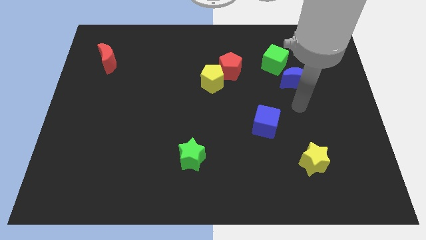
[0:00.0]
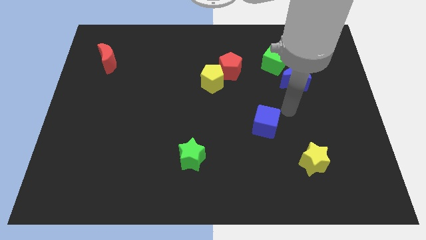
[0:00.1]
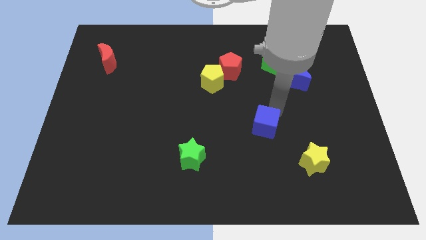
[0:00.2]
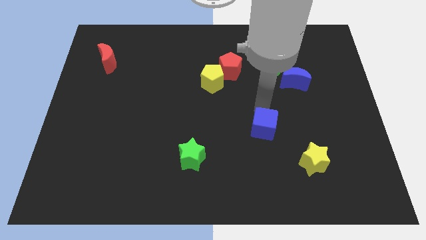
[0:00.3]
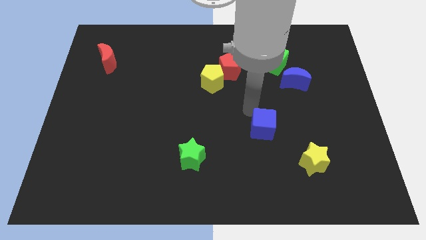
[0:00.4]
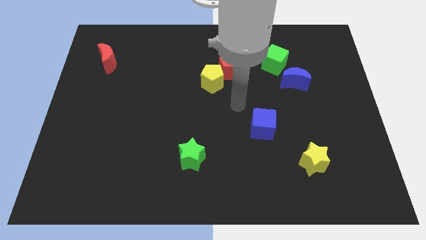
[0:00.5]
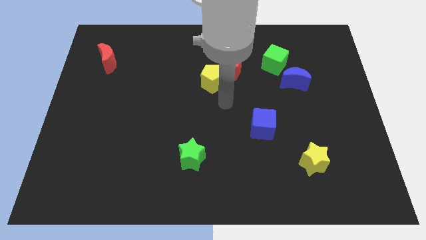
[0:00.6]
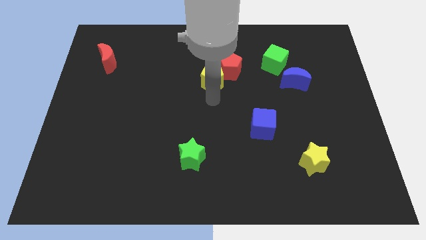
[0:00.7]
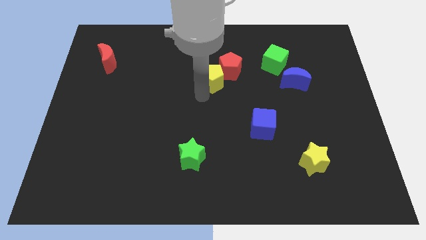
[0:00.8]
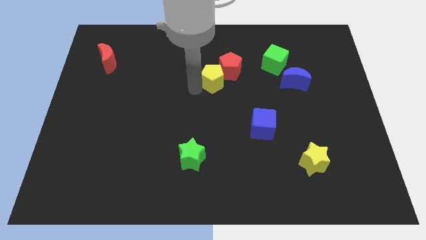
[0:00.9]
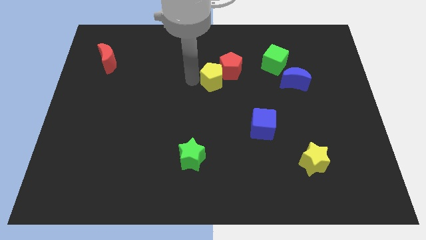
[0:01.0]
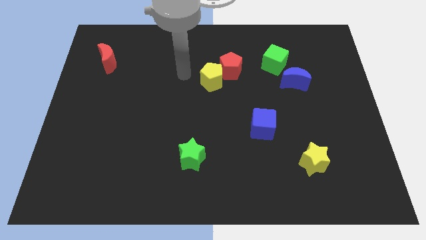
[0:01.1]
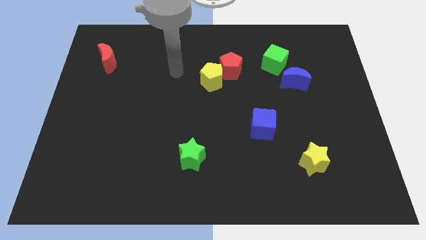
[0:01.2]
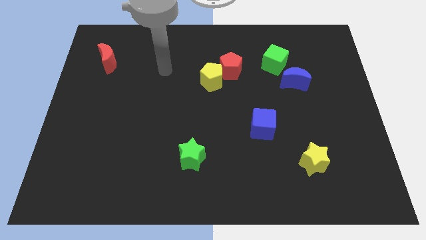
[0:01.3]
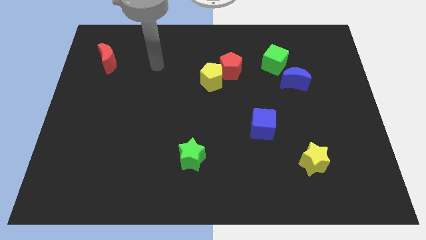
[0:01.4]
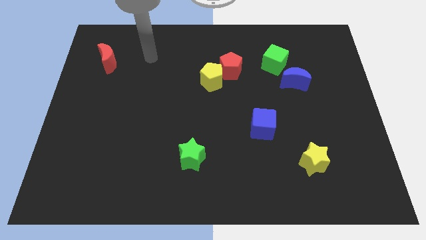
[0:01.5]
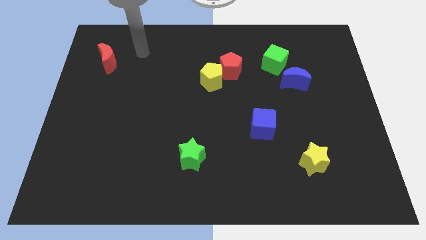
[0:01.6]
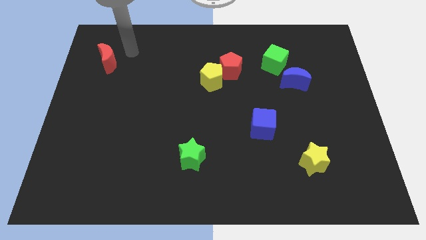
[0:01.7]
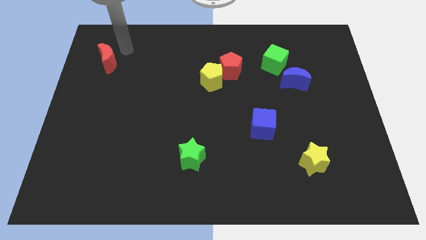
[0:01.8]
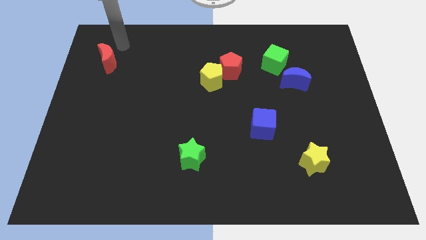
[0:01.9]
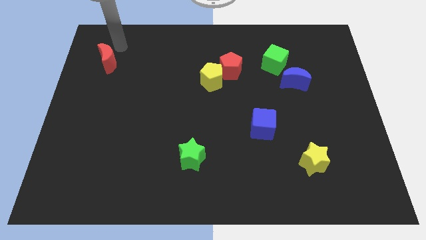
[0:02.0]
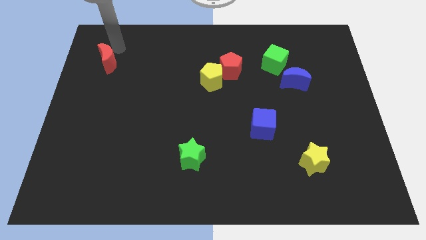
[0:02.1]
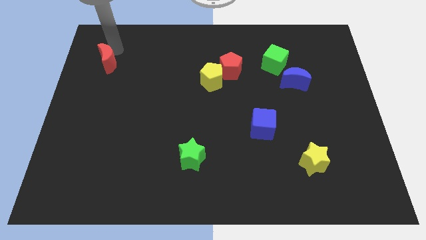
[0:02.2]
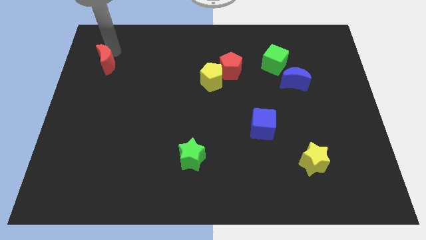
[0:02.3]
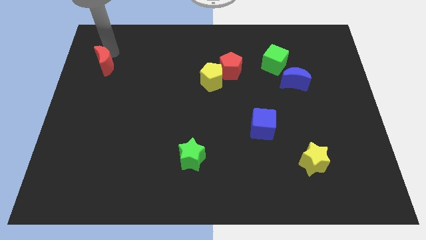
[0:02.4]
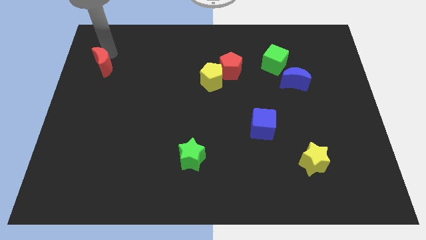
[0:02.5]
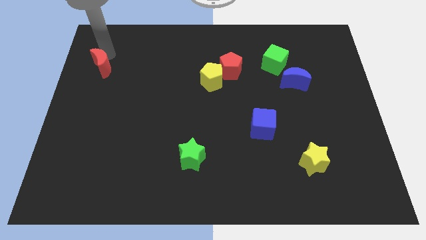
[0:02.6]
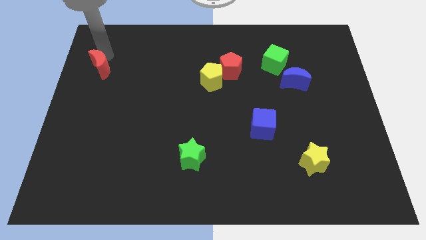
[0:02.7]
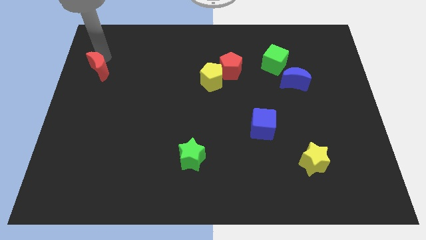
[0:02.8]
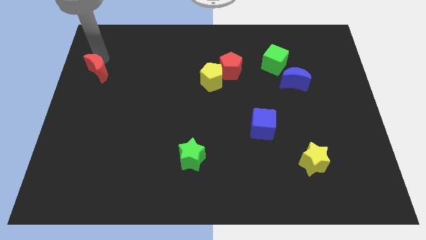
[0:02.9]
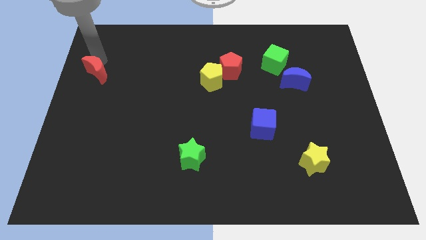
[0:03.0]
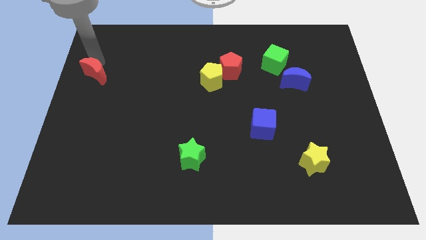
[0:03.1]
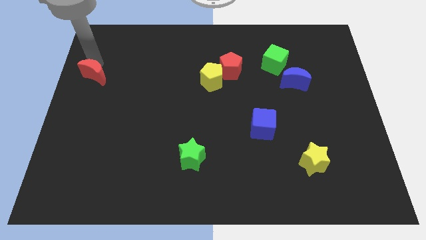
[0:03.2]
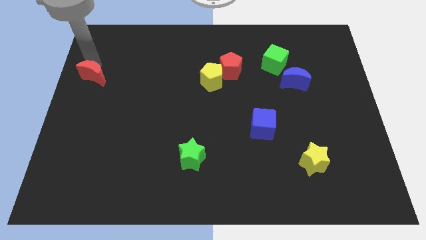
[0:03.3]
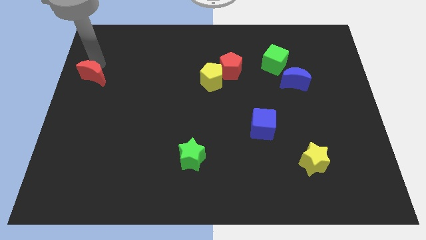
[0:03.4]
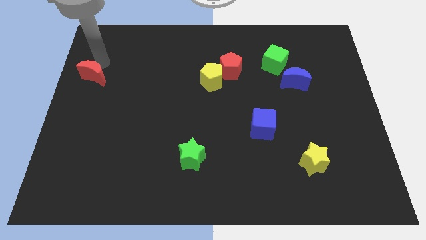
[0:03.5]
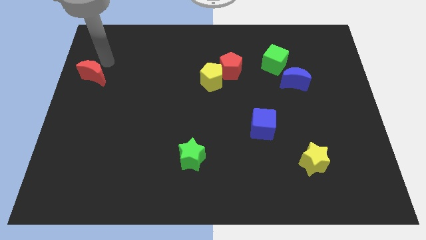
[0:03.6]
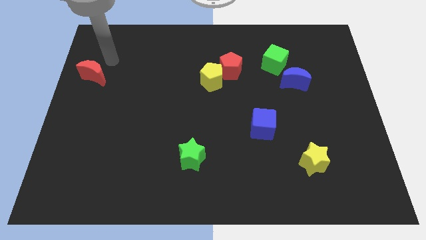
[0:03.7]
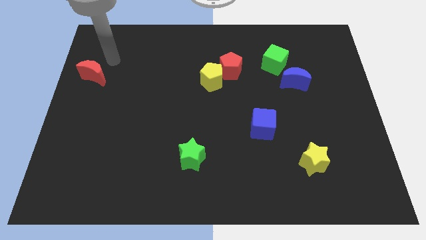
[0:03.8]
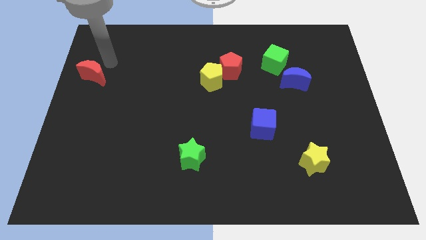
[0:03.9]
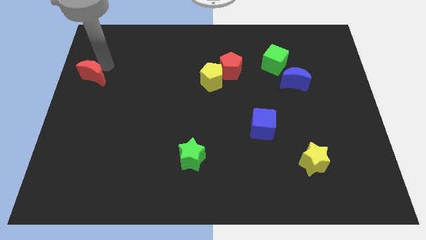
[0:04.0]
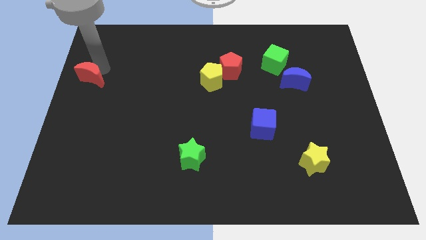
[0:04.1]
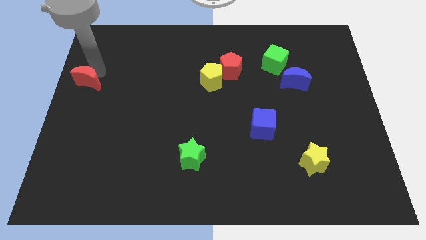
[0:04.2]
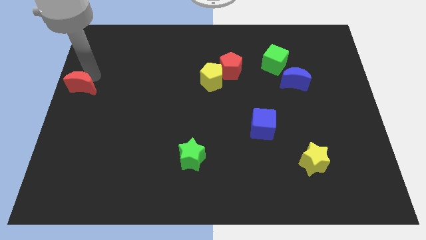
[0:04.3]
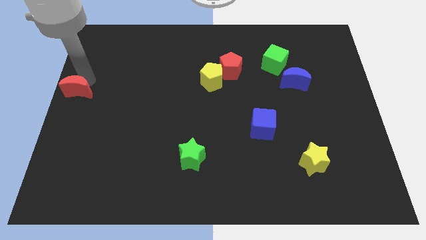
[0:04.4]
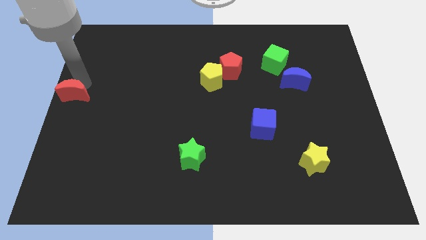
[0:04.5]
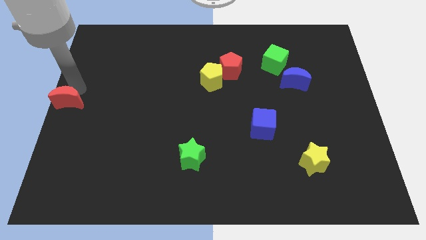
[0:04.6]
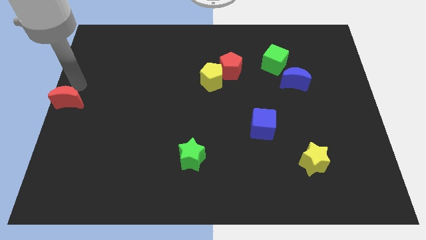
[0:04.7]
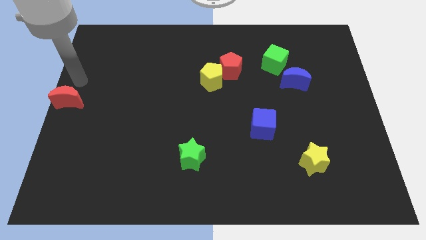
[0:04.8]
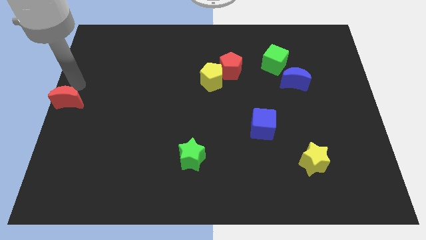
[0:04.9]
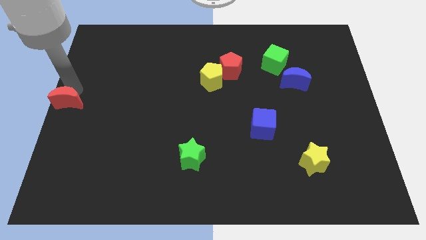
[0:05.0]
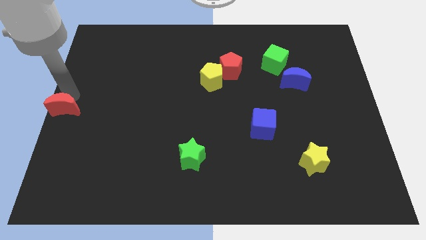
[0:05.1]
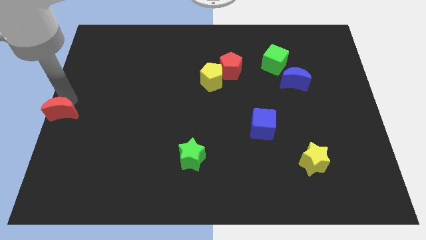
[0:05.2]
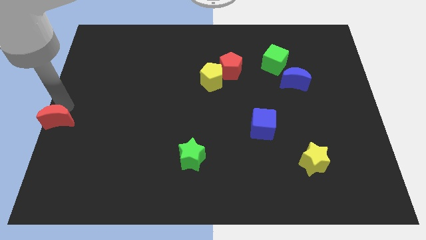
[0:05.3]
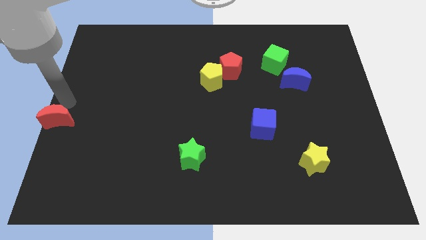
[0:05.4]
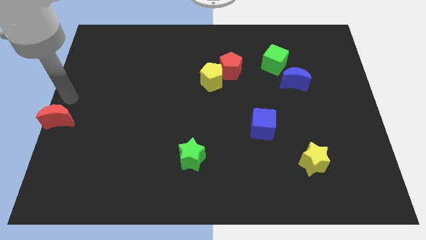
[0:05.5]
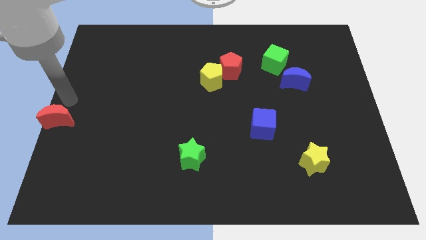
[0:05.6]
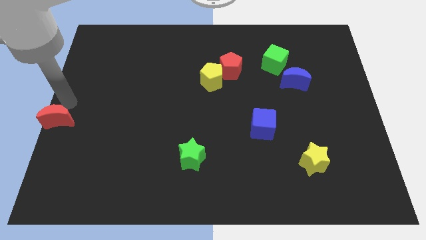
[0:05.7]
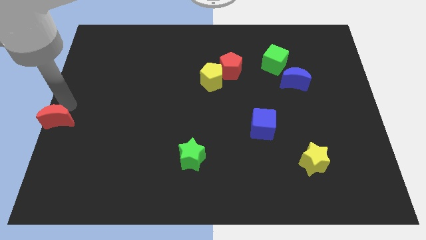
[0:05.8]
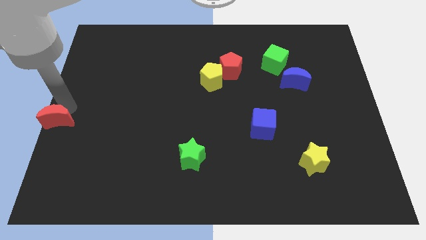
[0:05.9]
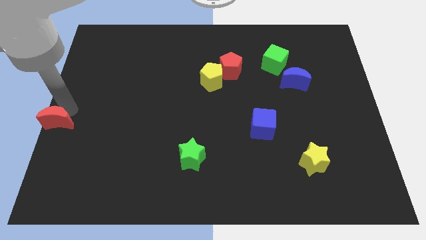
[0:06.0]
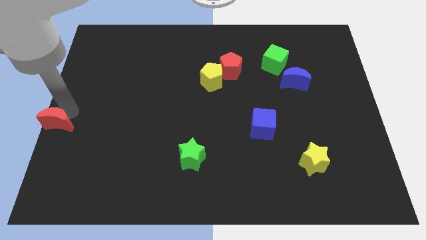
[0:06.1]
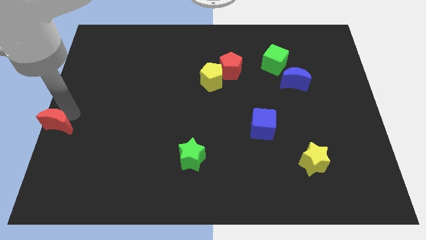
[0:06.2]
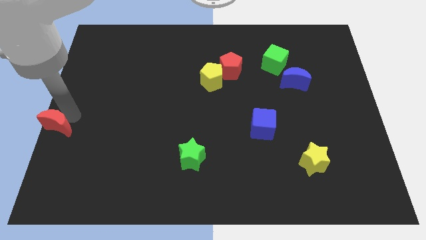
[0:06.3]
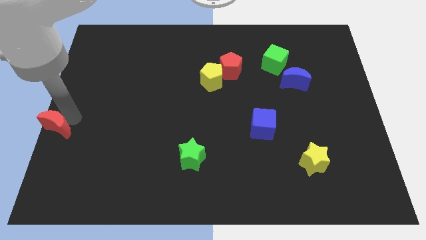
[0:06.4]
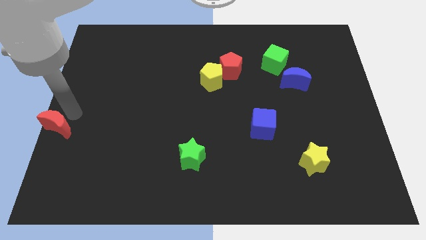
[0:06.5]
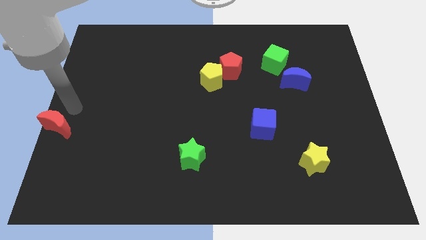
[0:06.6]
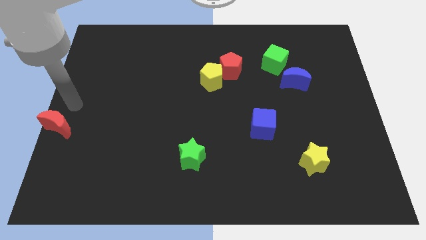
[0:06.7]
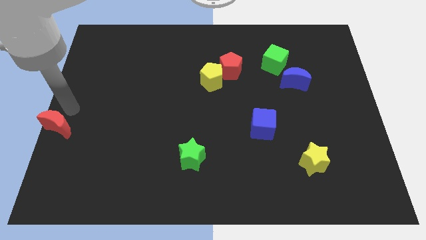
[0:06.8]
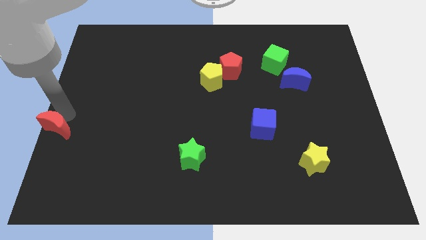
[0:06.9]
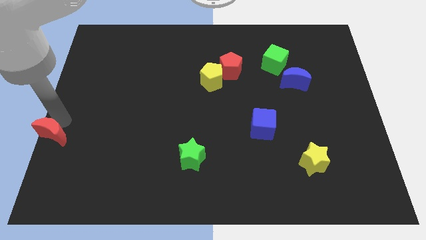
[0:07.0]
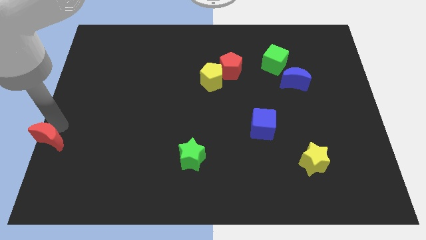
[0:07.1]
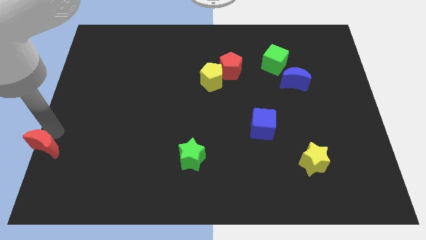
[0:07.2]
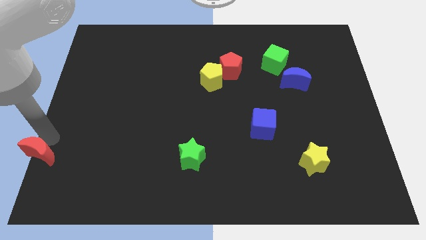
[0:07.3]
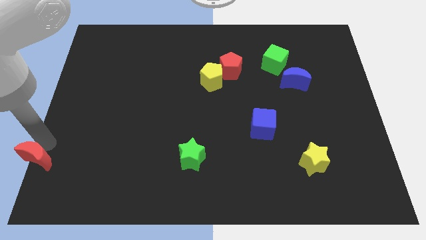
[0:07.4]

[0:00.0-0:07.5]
slide the red moon to the bottom left corner
